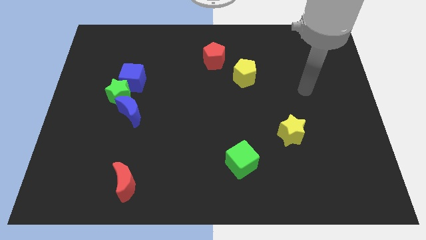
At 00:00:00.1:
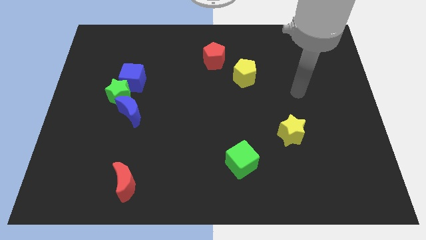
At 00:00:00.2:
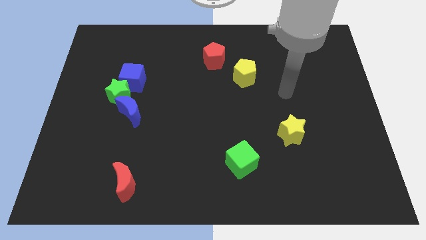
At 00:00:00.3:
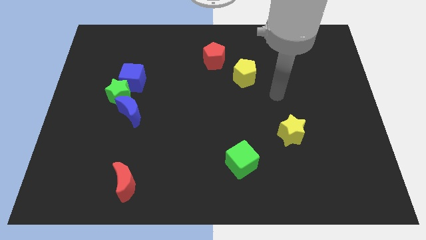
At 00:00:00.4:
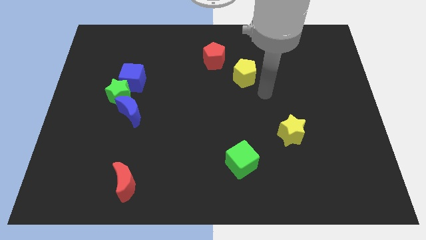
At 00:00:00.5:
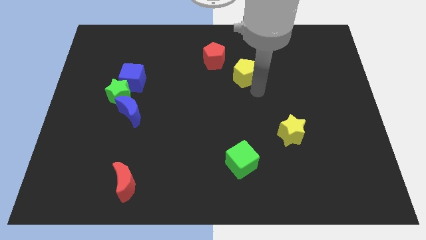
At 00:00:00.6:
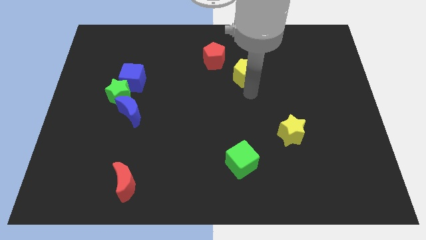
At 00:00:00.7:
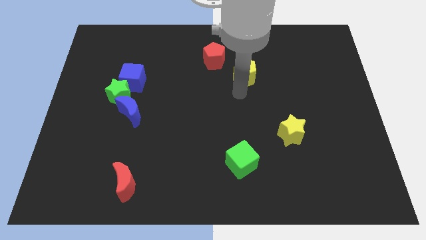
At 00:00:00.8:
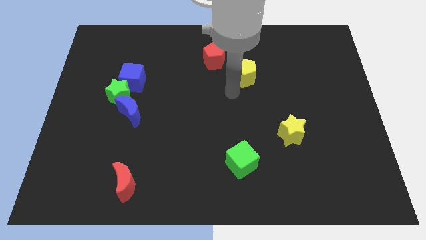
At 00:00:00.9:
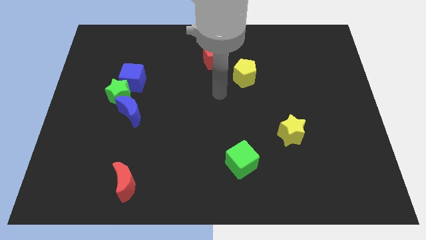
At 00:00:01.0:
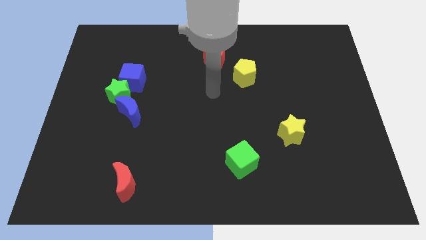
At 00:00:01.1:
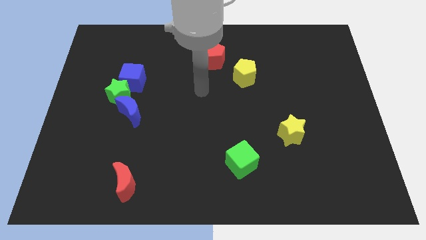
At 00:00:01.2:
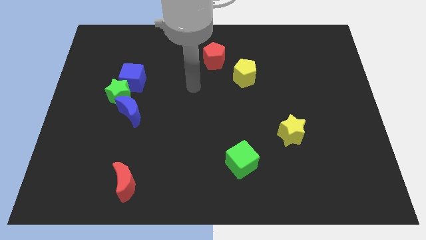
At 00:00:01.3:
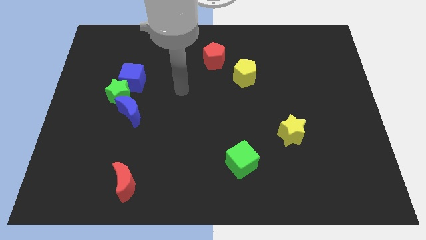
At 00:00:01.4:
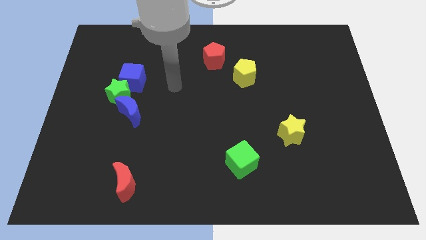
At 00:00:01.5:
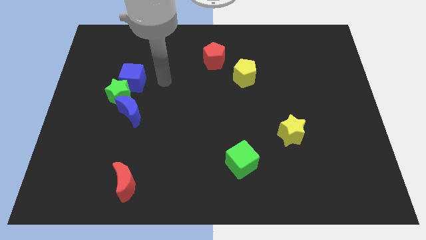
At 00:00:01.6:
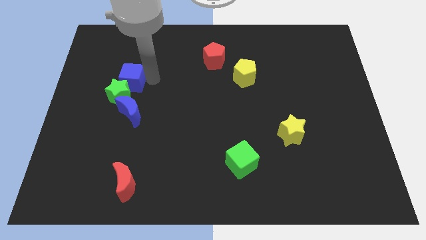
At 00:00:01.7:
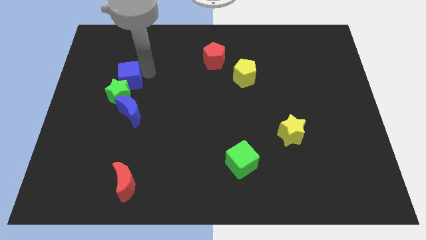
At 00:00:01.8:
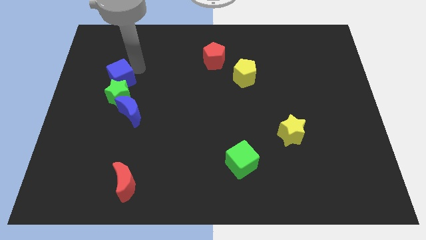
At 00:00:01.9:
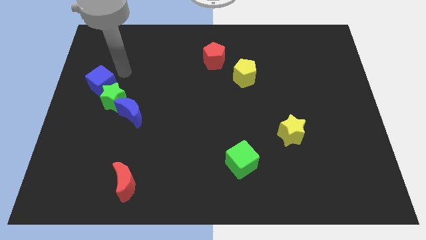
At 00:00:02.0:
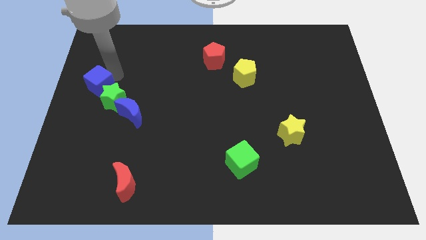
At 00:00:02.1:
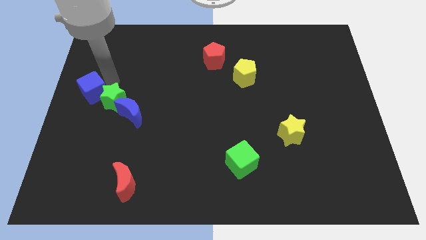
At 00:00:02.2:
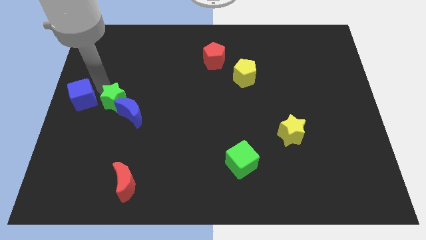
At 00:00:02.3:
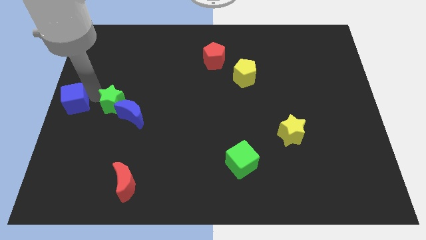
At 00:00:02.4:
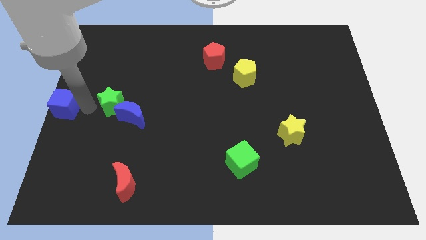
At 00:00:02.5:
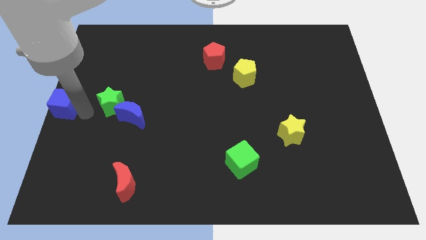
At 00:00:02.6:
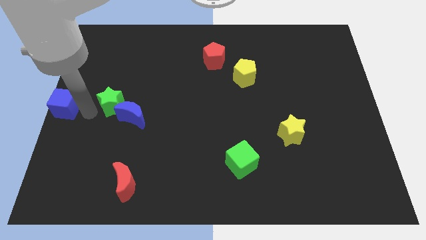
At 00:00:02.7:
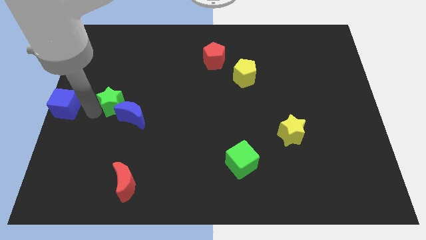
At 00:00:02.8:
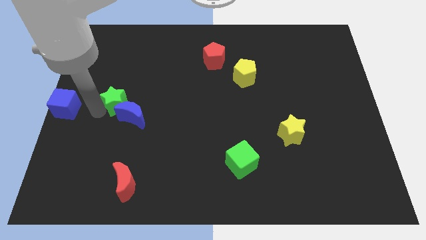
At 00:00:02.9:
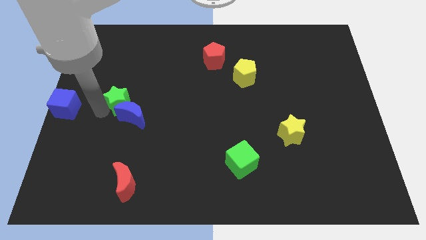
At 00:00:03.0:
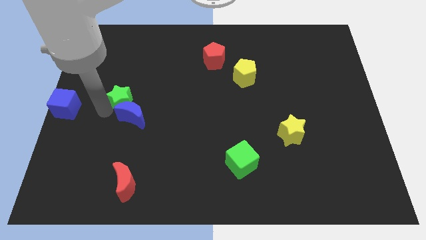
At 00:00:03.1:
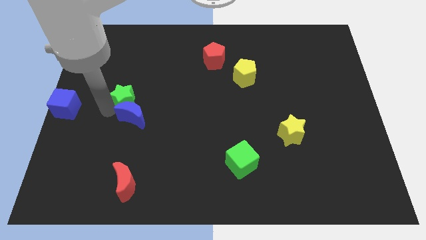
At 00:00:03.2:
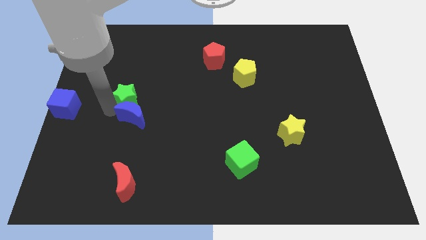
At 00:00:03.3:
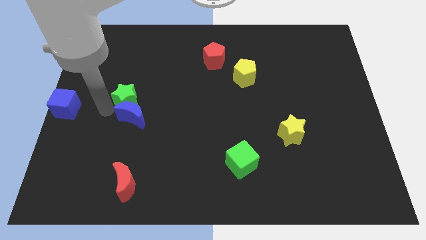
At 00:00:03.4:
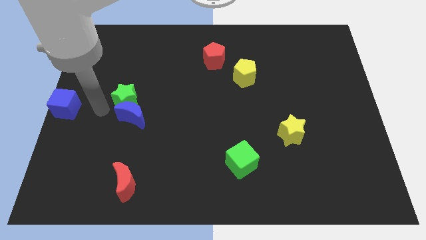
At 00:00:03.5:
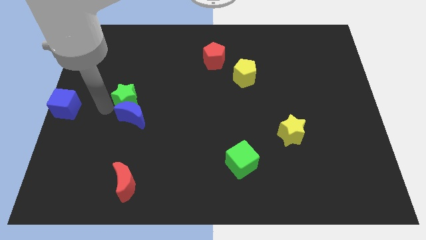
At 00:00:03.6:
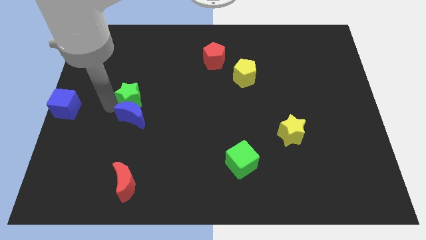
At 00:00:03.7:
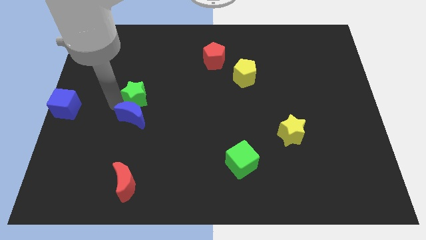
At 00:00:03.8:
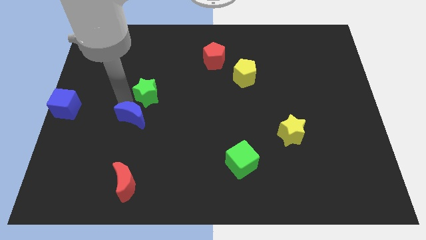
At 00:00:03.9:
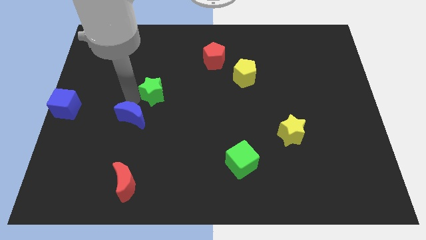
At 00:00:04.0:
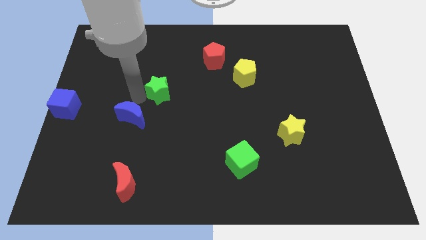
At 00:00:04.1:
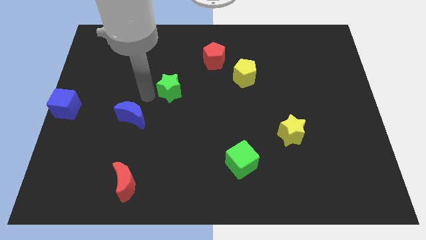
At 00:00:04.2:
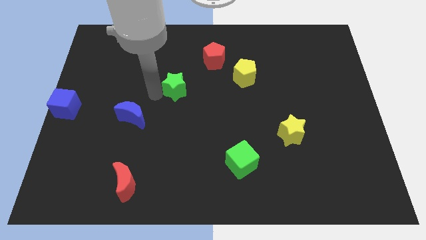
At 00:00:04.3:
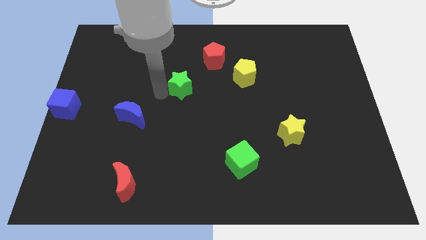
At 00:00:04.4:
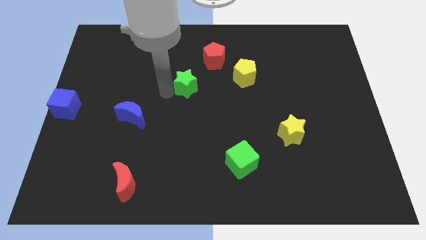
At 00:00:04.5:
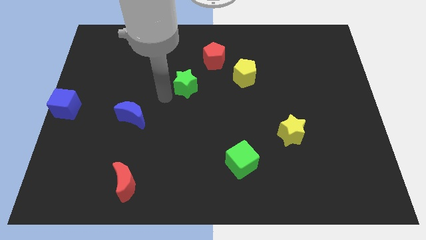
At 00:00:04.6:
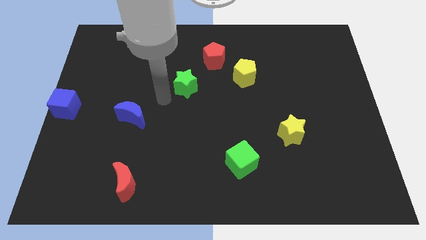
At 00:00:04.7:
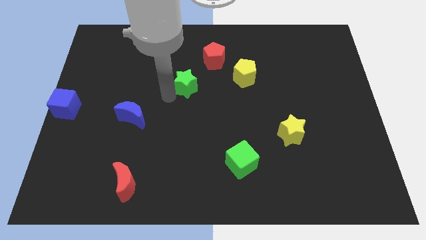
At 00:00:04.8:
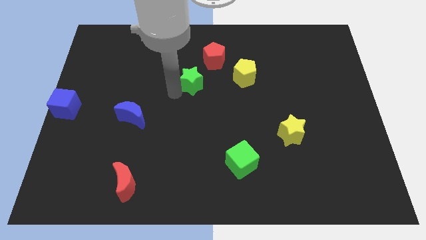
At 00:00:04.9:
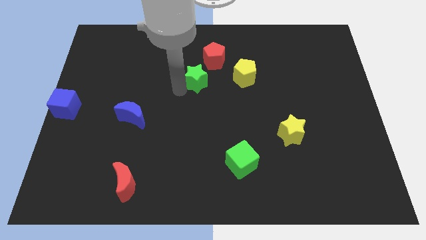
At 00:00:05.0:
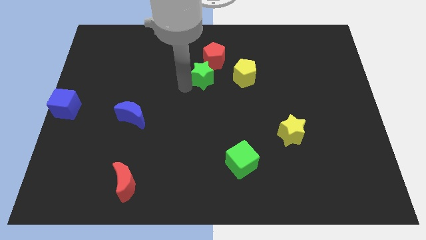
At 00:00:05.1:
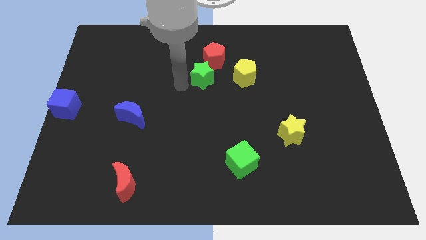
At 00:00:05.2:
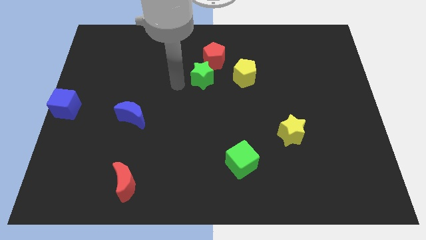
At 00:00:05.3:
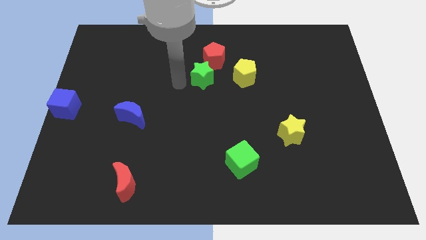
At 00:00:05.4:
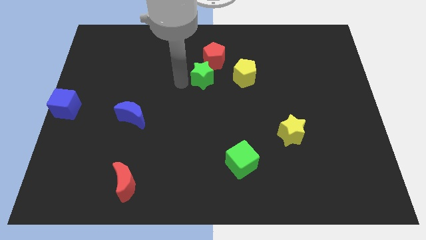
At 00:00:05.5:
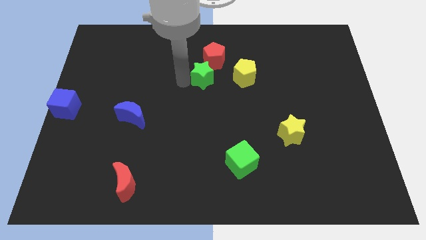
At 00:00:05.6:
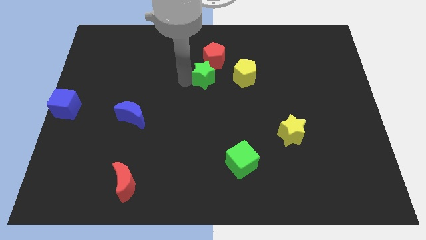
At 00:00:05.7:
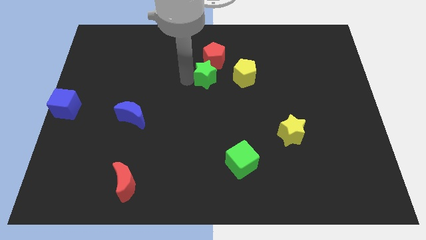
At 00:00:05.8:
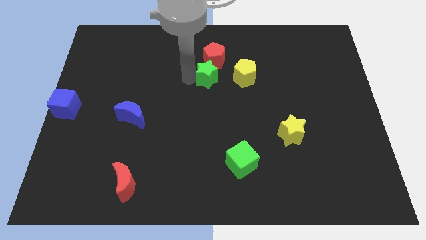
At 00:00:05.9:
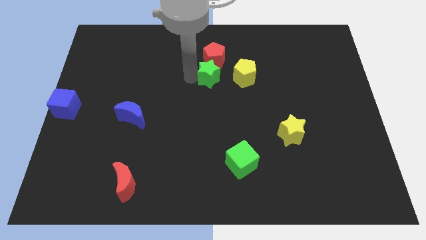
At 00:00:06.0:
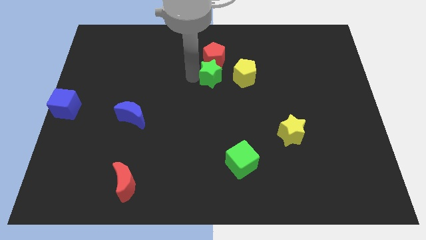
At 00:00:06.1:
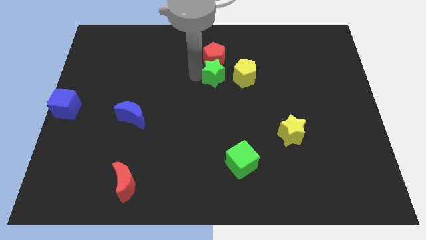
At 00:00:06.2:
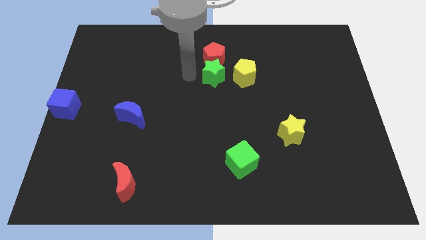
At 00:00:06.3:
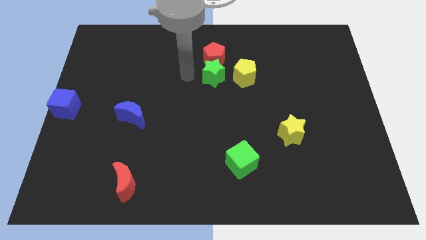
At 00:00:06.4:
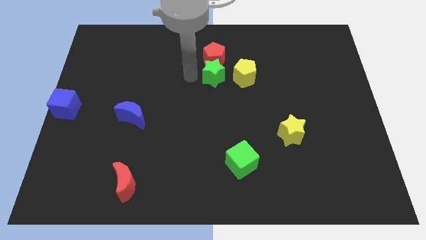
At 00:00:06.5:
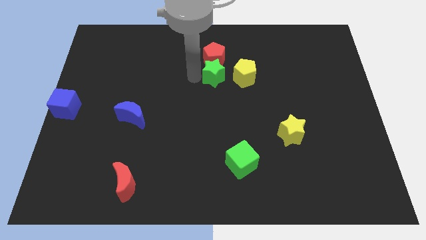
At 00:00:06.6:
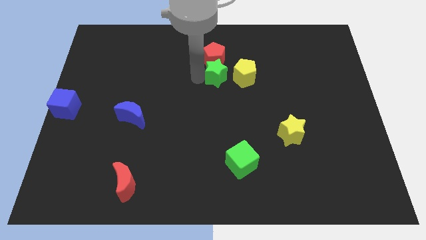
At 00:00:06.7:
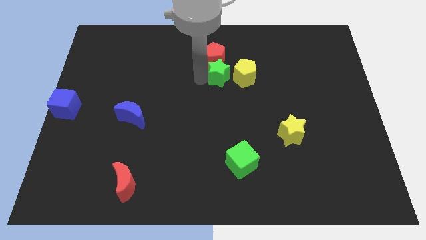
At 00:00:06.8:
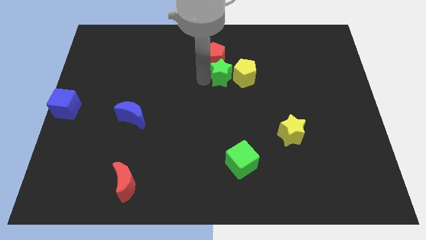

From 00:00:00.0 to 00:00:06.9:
put the green star to the yellow pentagon
